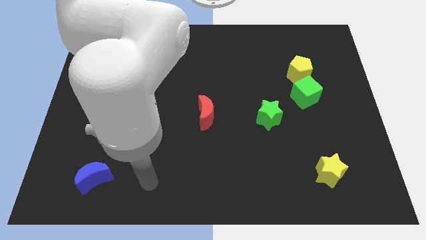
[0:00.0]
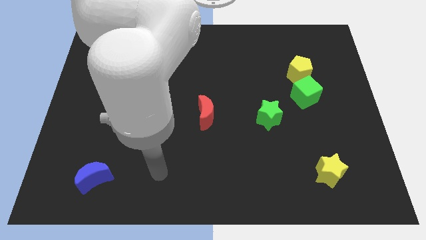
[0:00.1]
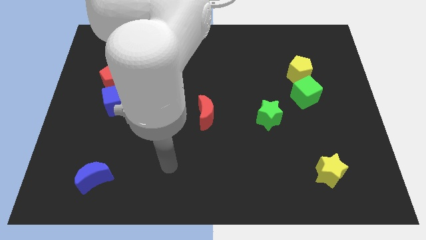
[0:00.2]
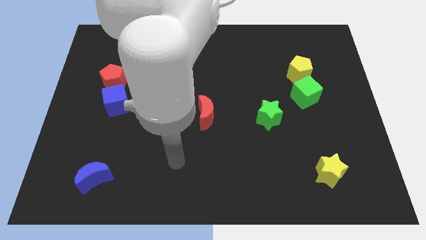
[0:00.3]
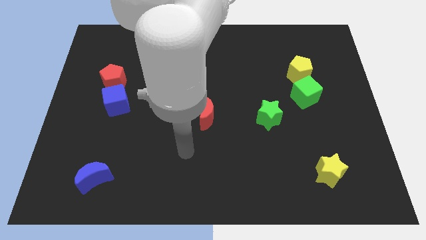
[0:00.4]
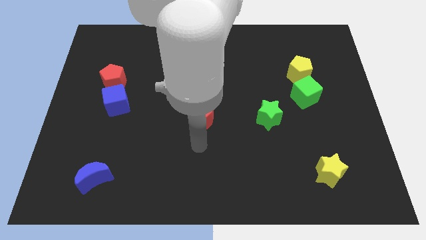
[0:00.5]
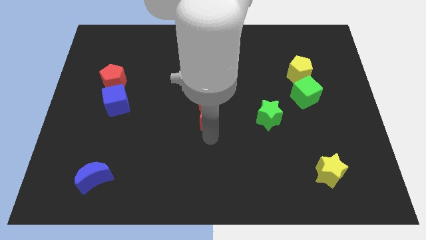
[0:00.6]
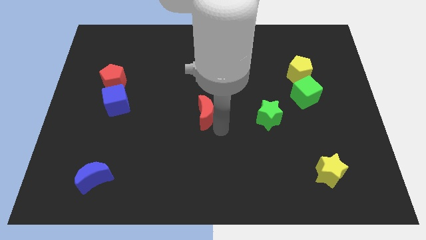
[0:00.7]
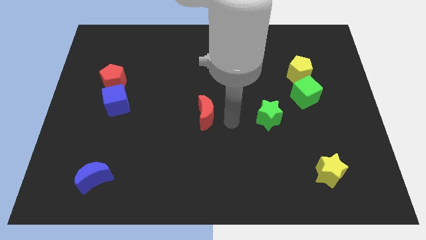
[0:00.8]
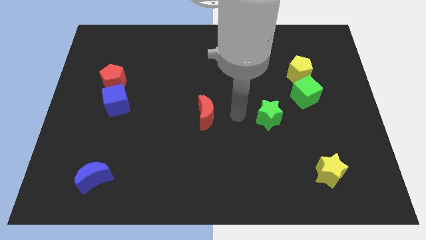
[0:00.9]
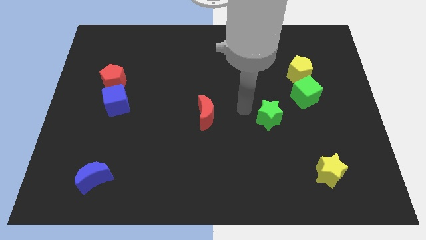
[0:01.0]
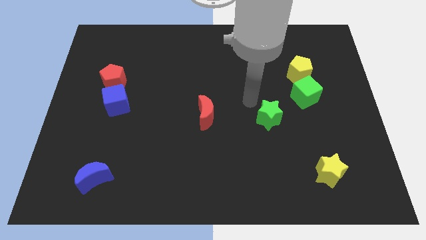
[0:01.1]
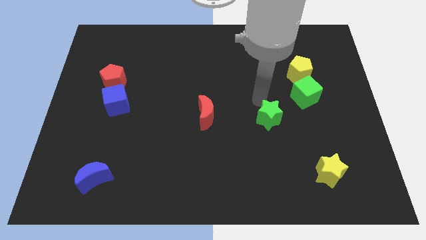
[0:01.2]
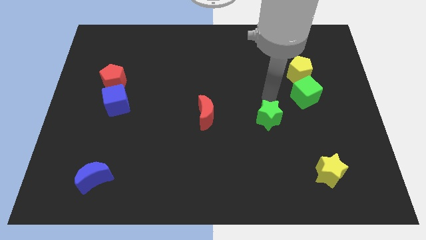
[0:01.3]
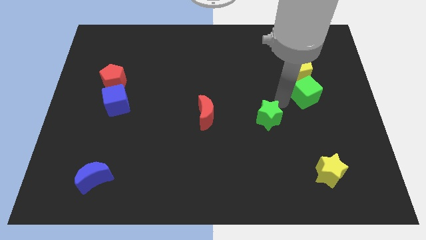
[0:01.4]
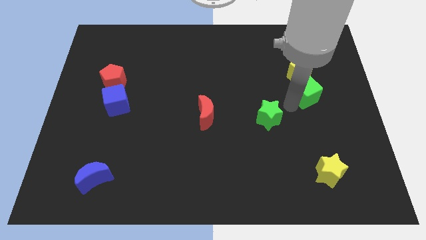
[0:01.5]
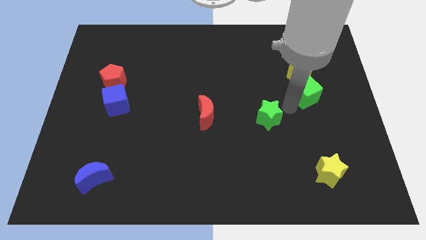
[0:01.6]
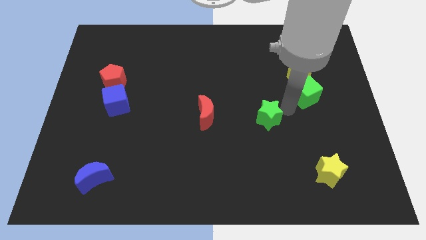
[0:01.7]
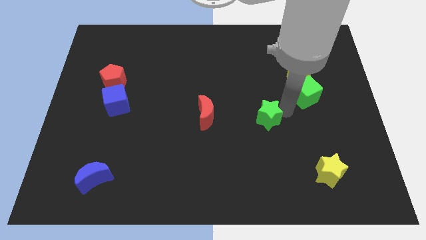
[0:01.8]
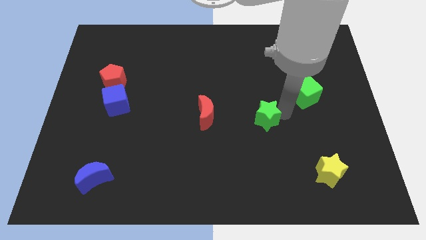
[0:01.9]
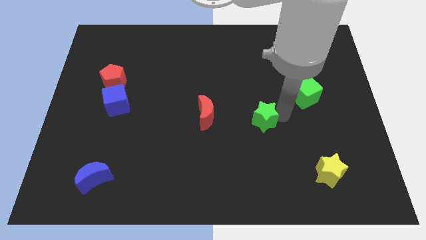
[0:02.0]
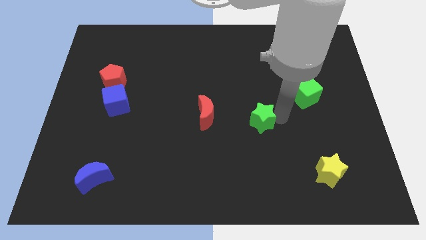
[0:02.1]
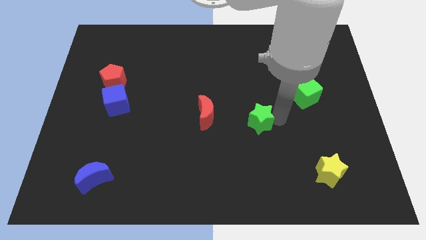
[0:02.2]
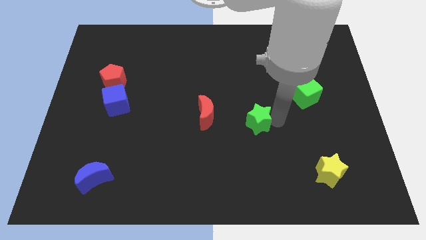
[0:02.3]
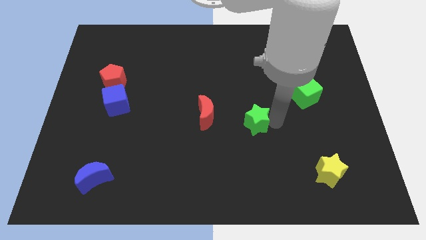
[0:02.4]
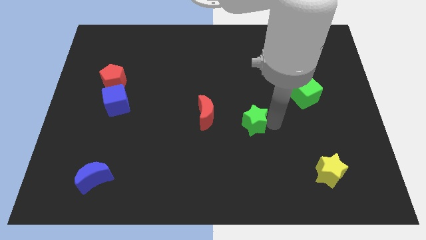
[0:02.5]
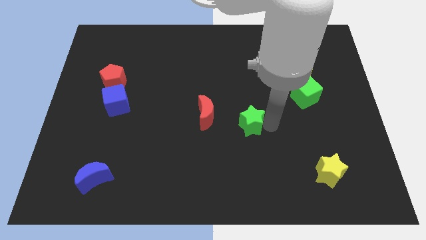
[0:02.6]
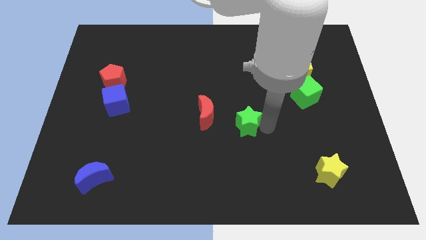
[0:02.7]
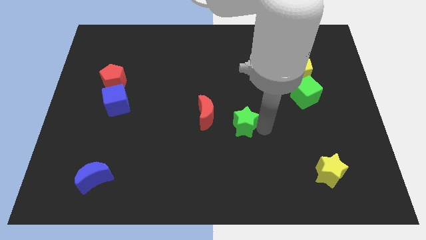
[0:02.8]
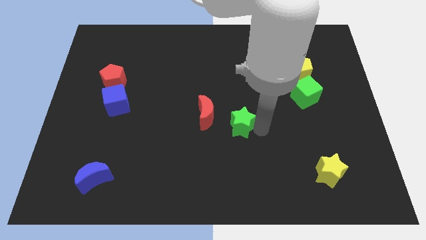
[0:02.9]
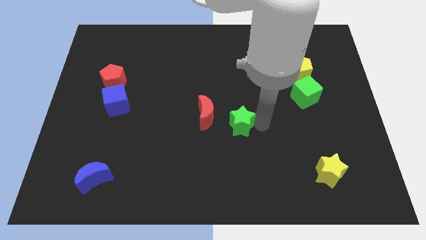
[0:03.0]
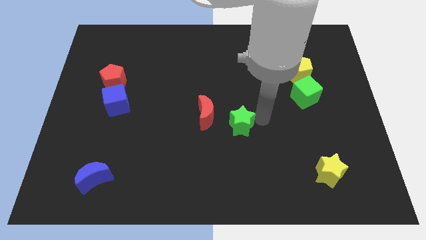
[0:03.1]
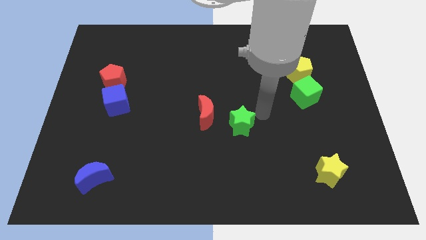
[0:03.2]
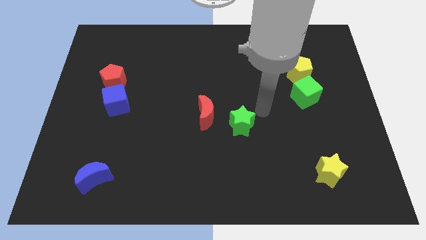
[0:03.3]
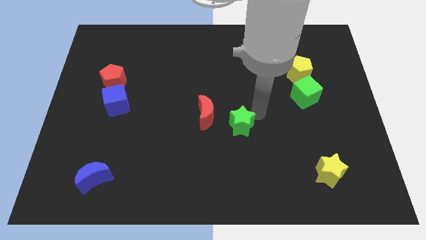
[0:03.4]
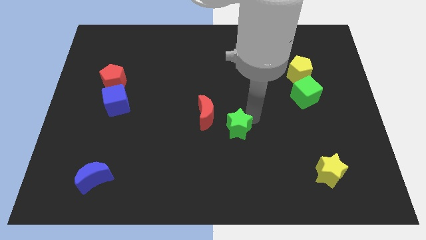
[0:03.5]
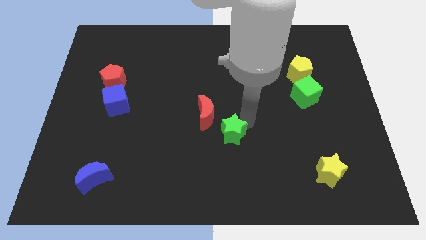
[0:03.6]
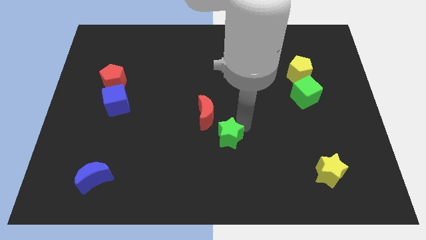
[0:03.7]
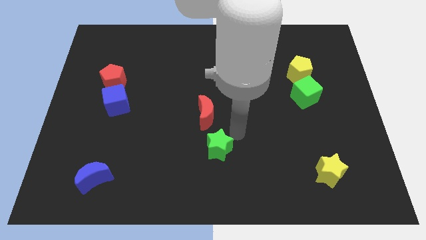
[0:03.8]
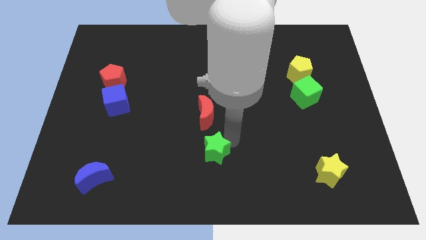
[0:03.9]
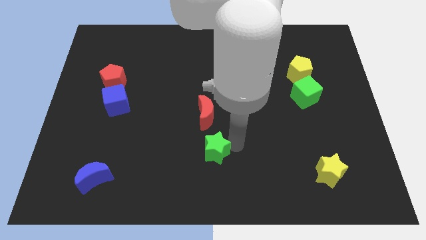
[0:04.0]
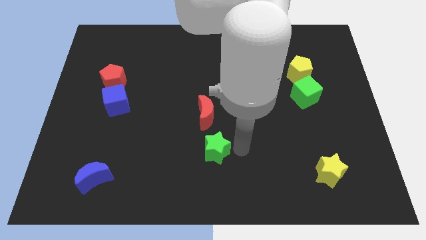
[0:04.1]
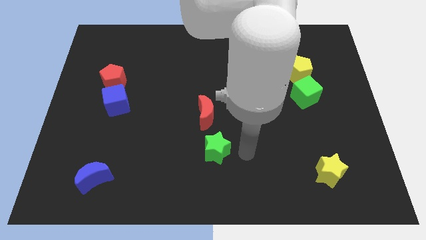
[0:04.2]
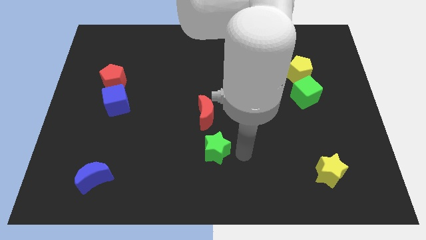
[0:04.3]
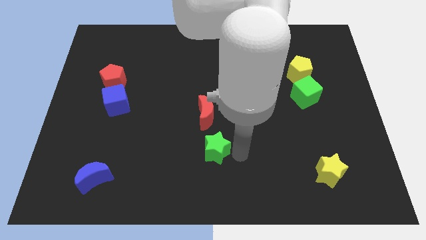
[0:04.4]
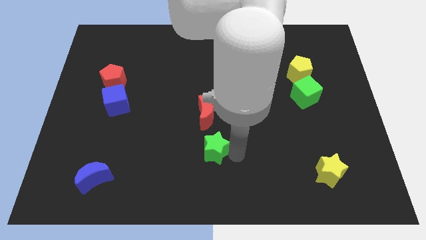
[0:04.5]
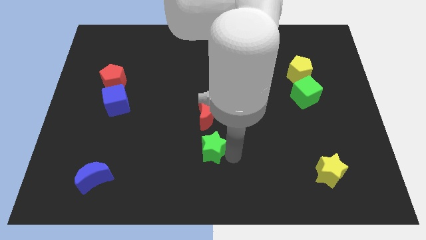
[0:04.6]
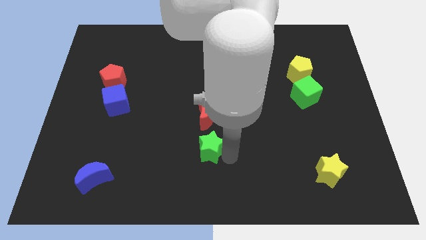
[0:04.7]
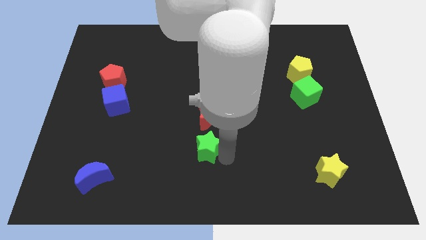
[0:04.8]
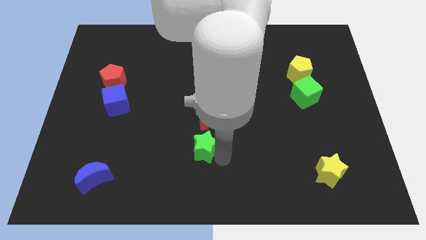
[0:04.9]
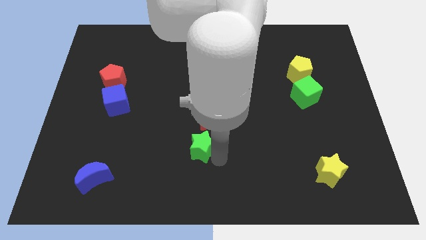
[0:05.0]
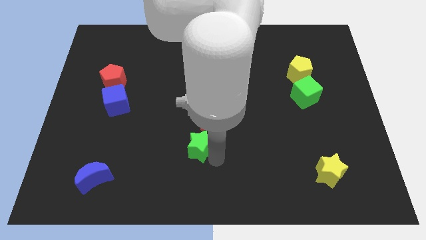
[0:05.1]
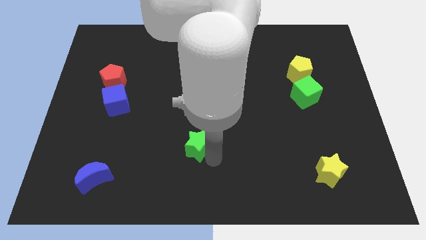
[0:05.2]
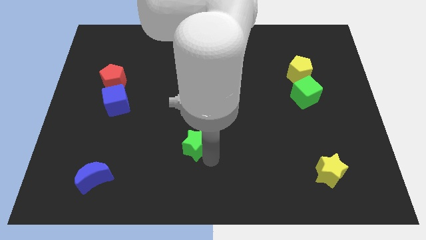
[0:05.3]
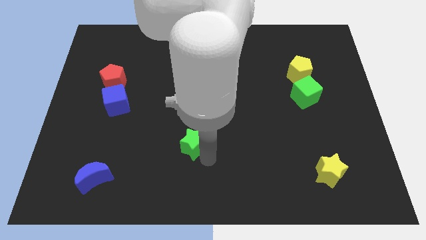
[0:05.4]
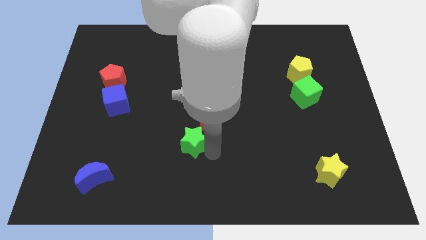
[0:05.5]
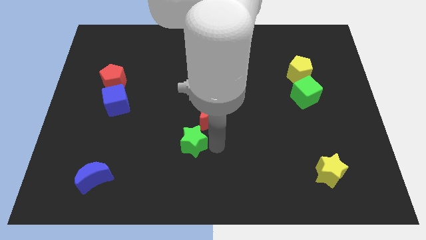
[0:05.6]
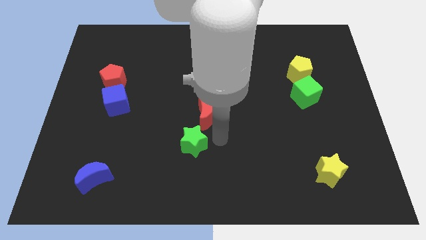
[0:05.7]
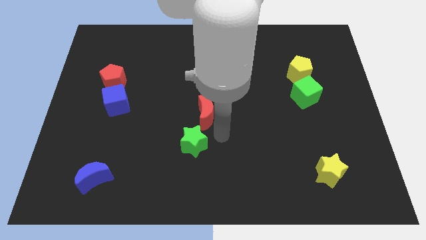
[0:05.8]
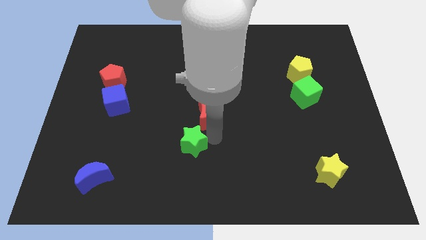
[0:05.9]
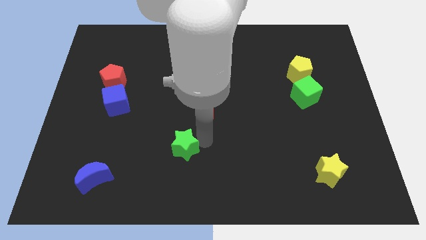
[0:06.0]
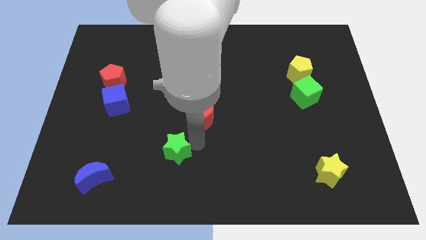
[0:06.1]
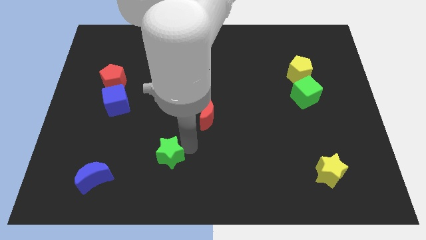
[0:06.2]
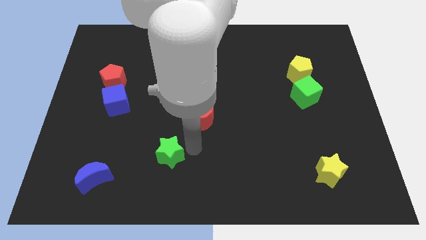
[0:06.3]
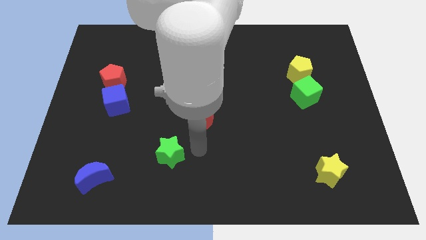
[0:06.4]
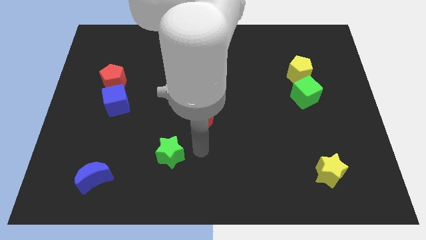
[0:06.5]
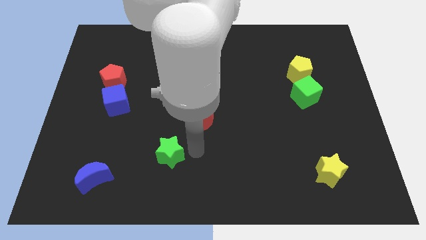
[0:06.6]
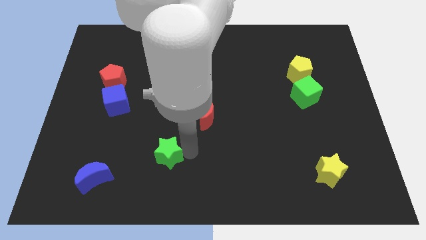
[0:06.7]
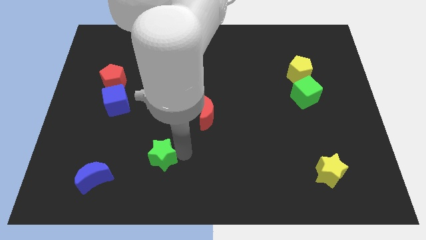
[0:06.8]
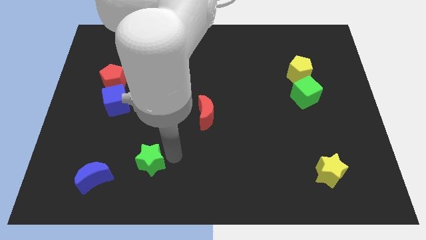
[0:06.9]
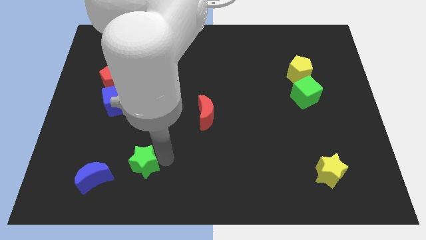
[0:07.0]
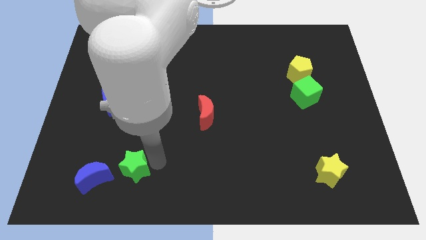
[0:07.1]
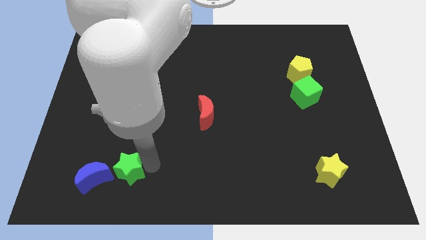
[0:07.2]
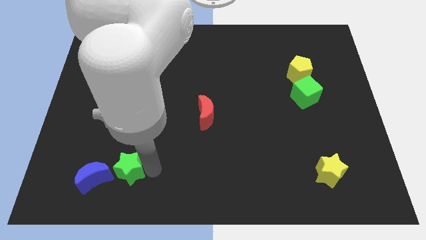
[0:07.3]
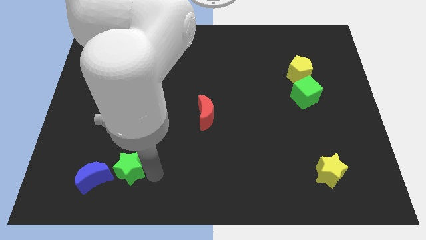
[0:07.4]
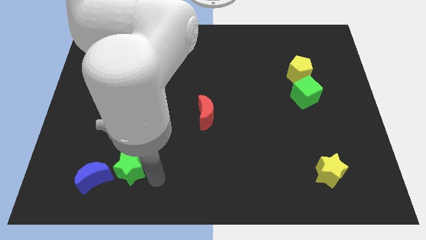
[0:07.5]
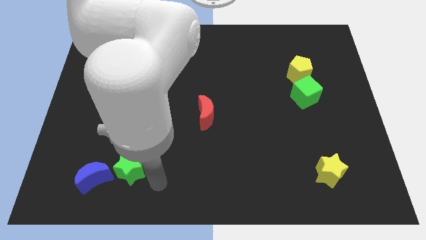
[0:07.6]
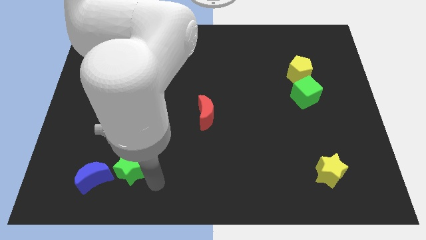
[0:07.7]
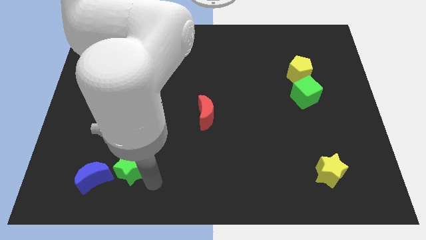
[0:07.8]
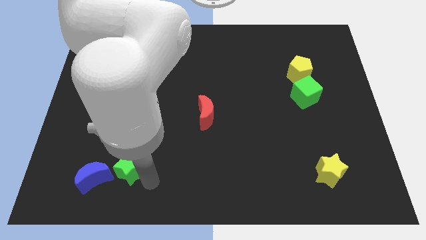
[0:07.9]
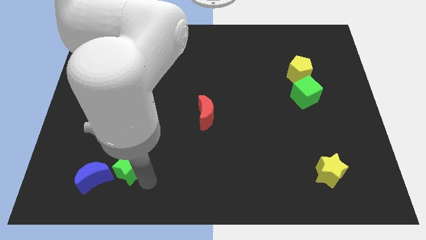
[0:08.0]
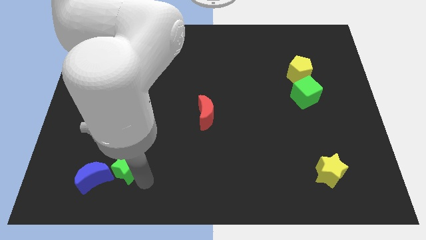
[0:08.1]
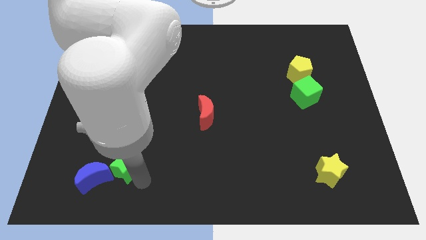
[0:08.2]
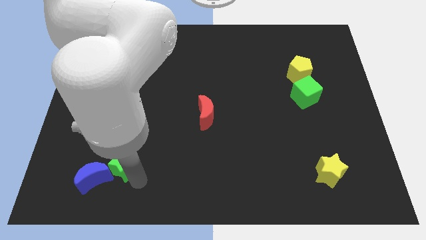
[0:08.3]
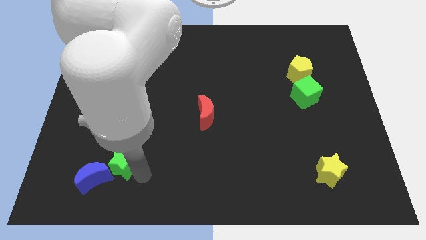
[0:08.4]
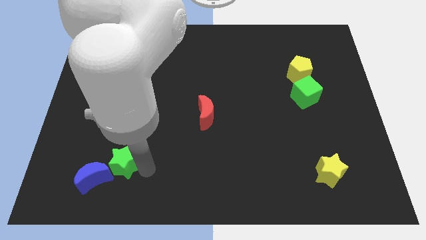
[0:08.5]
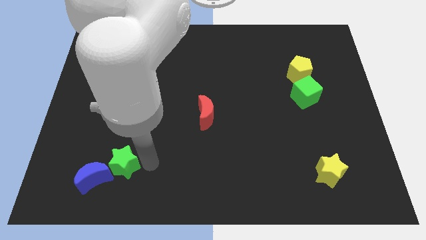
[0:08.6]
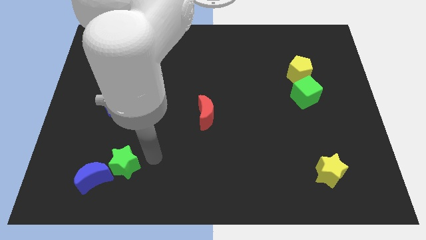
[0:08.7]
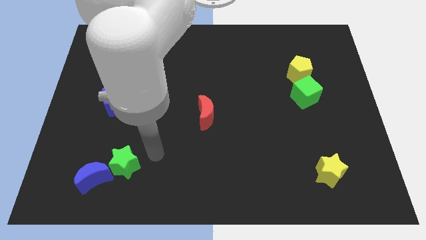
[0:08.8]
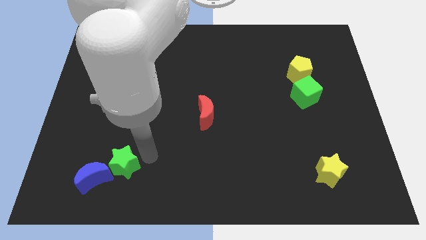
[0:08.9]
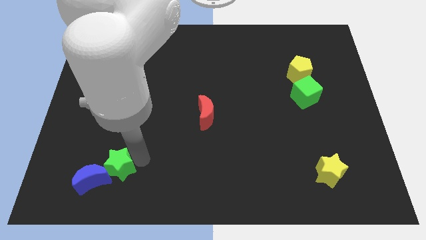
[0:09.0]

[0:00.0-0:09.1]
push the green star towards the blue moon
